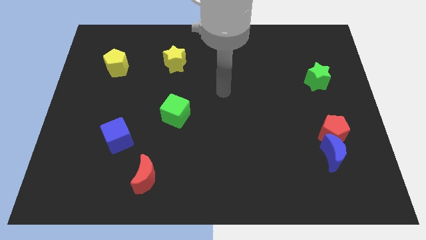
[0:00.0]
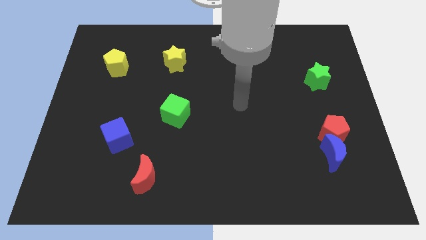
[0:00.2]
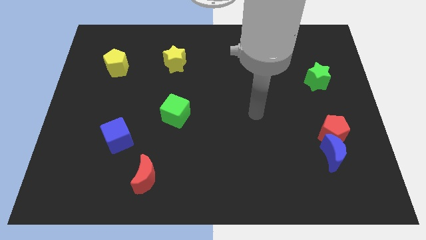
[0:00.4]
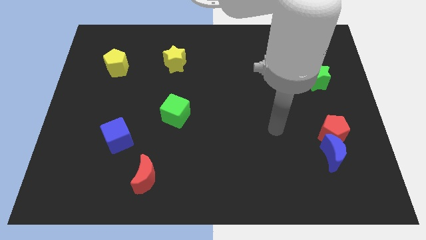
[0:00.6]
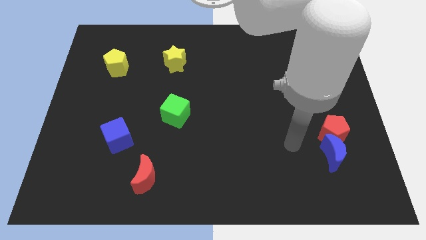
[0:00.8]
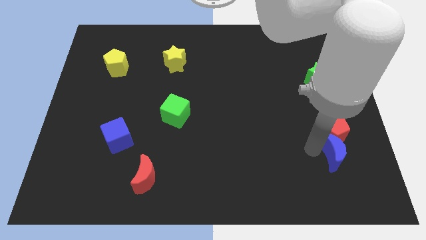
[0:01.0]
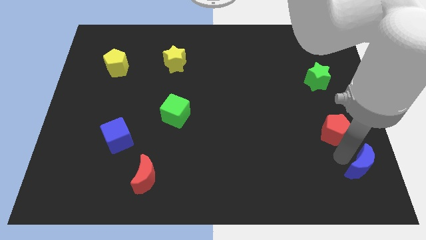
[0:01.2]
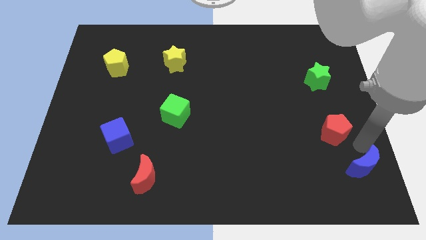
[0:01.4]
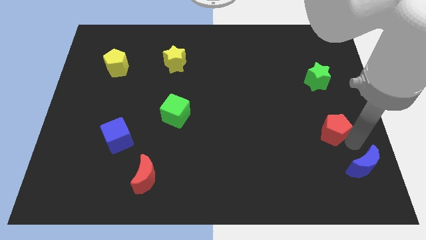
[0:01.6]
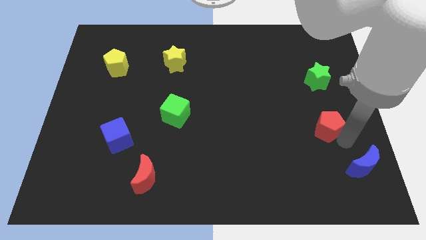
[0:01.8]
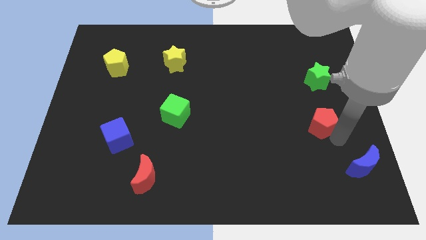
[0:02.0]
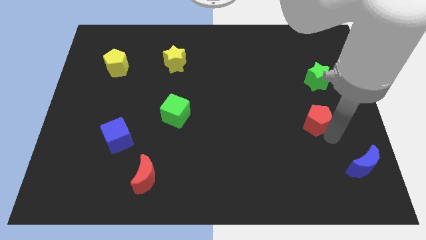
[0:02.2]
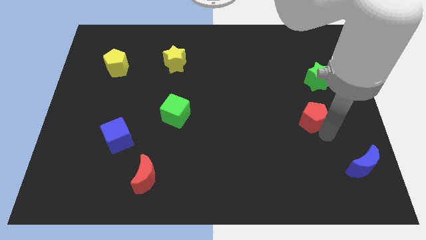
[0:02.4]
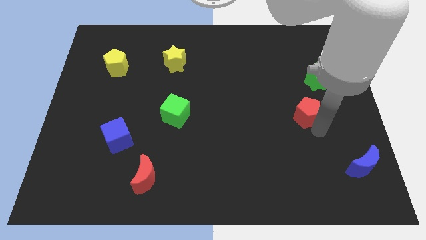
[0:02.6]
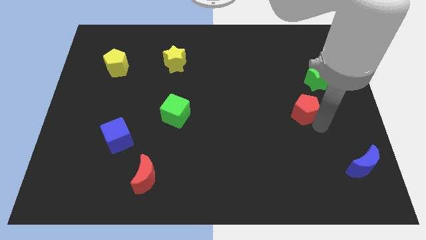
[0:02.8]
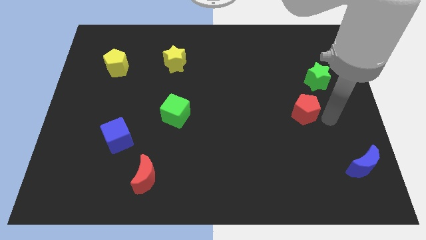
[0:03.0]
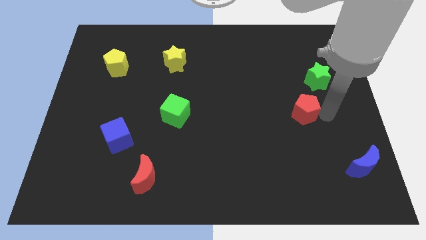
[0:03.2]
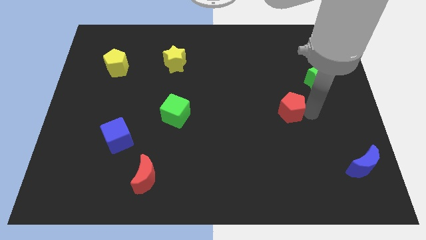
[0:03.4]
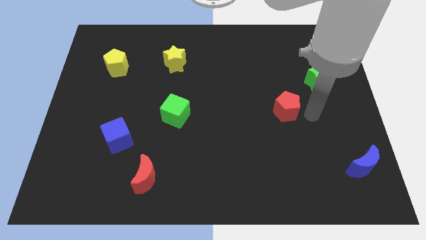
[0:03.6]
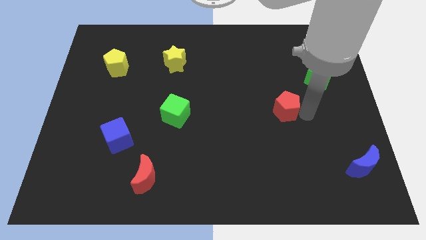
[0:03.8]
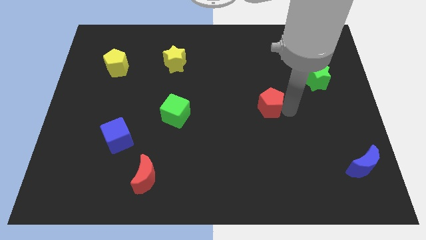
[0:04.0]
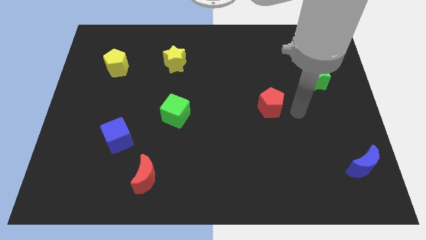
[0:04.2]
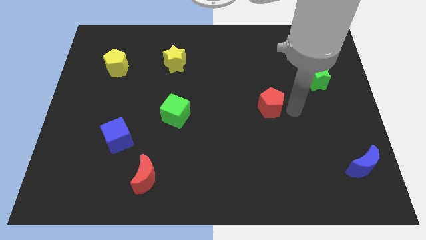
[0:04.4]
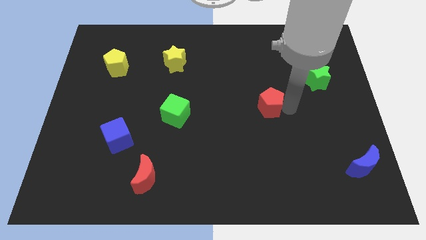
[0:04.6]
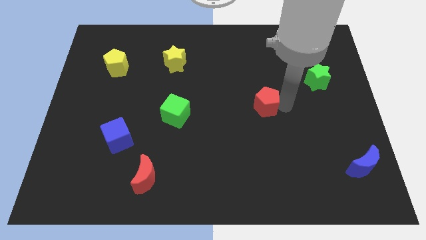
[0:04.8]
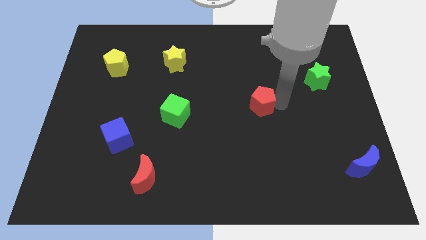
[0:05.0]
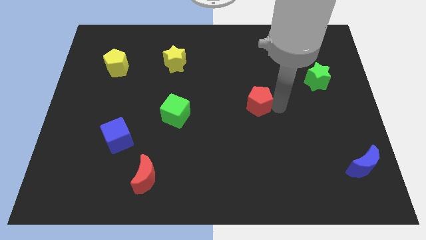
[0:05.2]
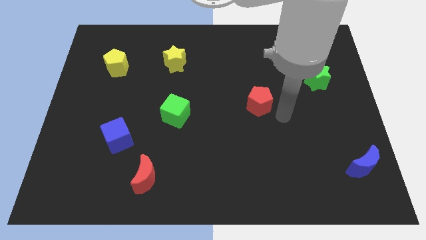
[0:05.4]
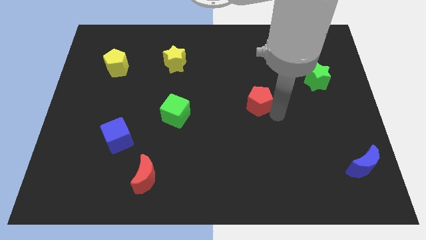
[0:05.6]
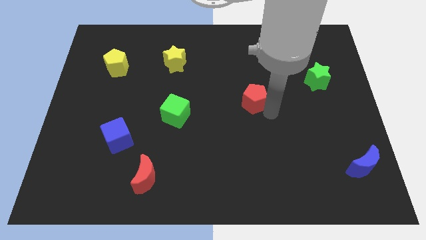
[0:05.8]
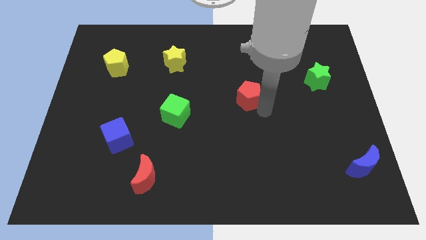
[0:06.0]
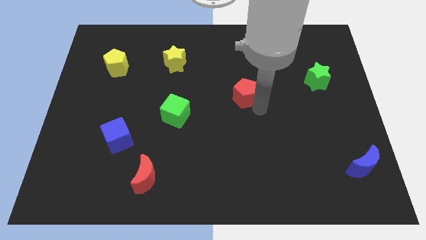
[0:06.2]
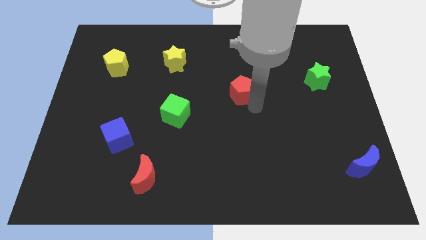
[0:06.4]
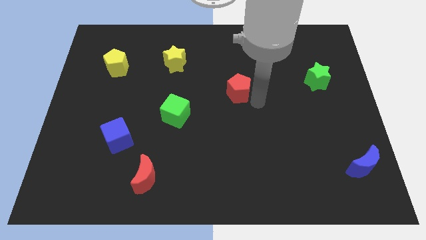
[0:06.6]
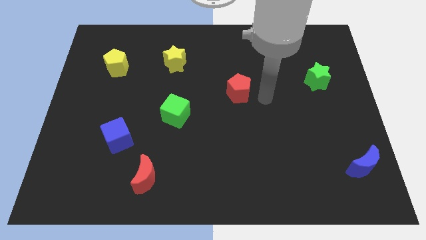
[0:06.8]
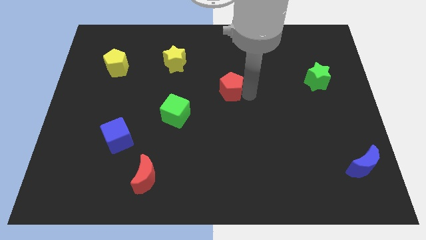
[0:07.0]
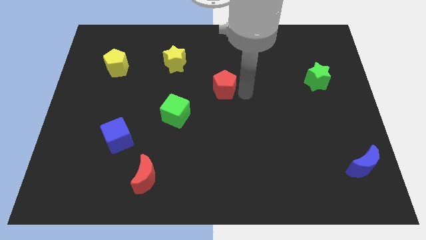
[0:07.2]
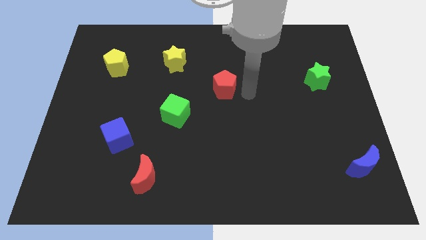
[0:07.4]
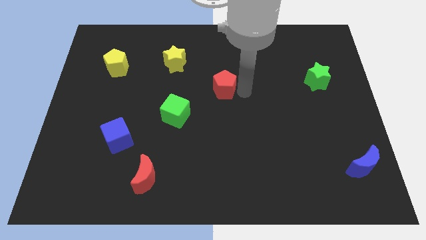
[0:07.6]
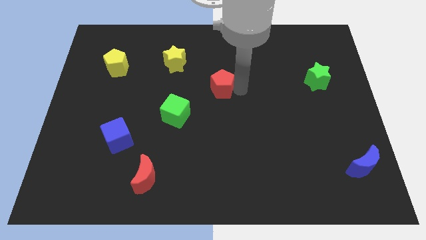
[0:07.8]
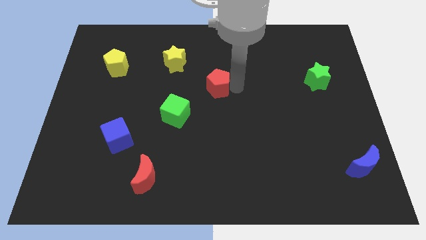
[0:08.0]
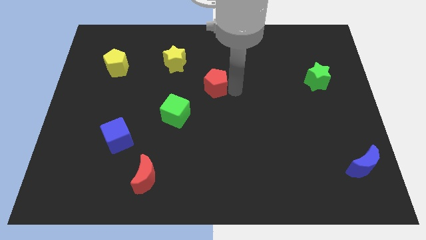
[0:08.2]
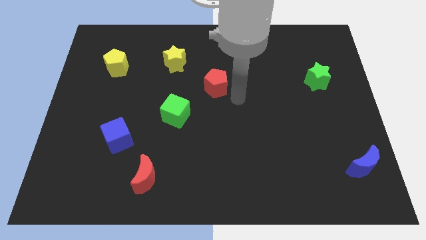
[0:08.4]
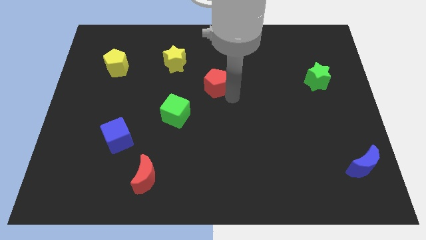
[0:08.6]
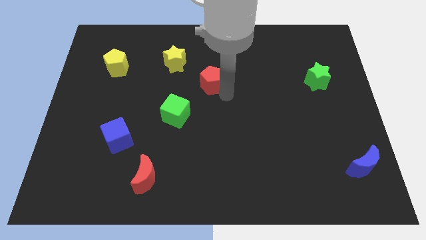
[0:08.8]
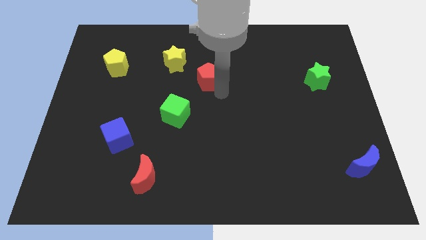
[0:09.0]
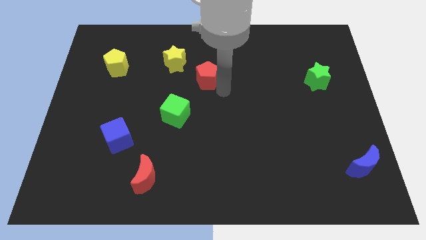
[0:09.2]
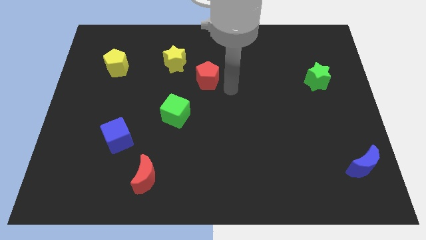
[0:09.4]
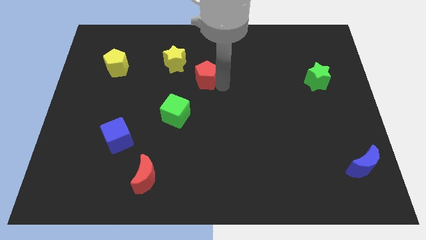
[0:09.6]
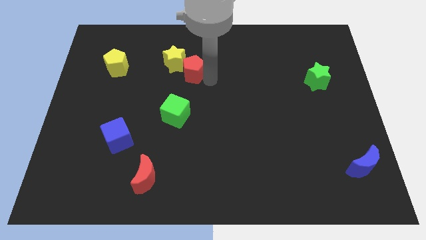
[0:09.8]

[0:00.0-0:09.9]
put the red pentagon towards the yellow star

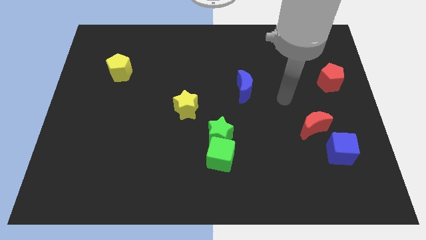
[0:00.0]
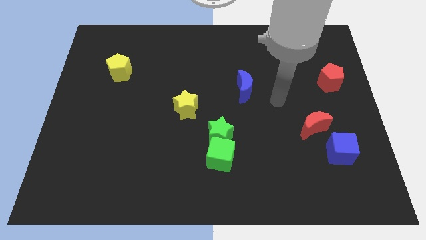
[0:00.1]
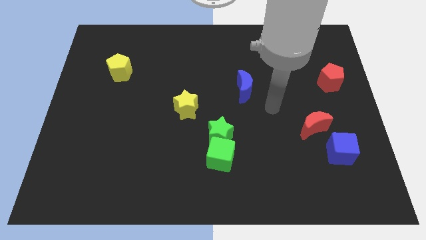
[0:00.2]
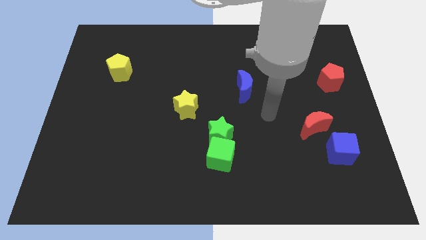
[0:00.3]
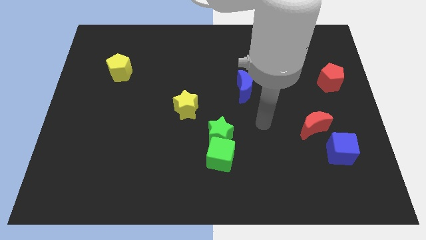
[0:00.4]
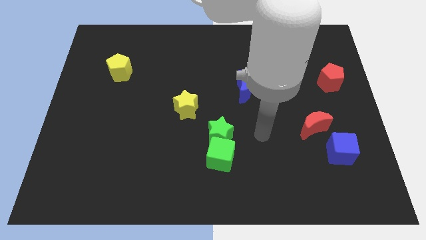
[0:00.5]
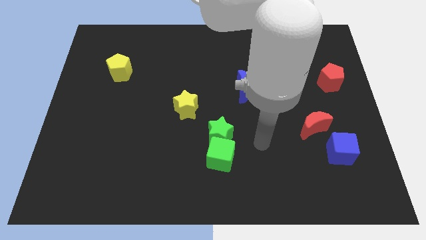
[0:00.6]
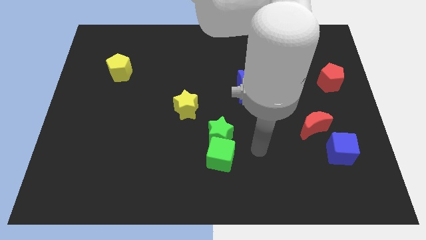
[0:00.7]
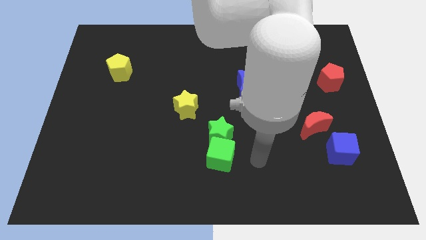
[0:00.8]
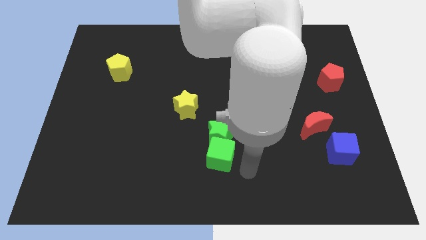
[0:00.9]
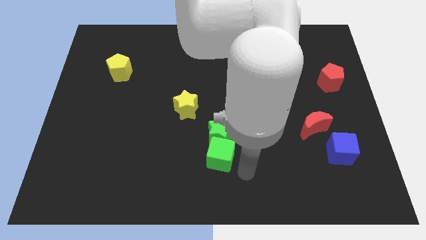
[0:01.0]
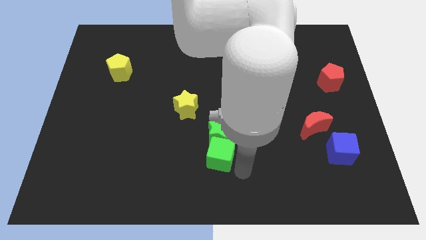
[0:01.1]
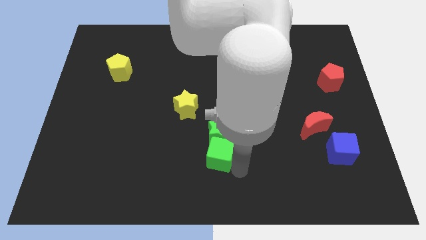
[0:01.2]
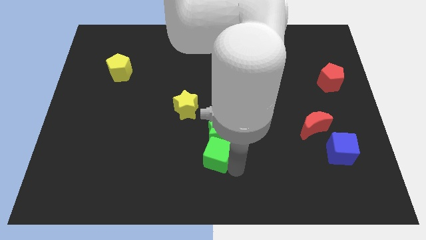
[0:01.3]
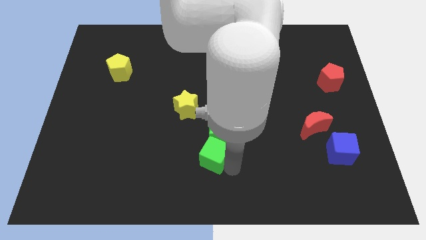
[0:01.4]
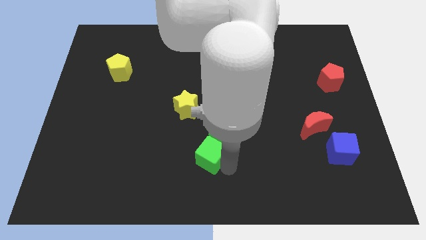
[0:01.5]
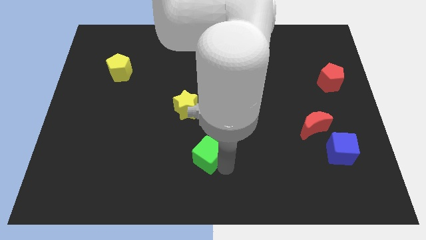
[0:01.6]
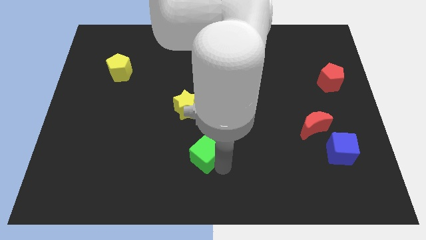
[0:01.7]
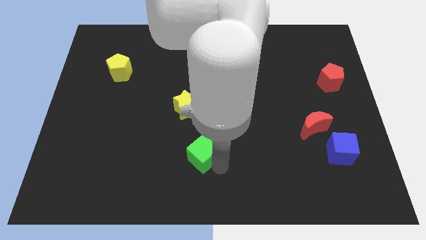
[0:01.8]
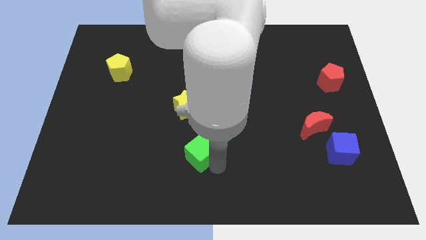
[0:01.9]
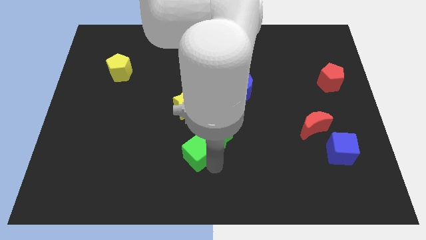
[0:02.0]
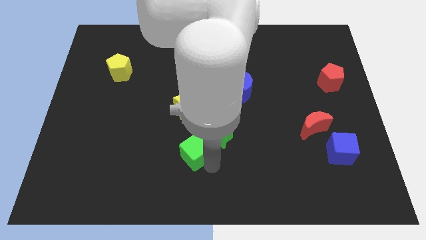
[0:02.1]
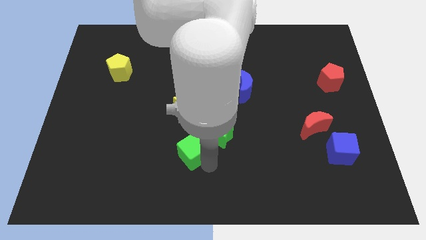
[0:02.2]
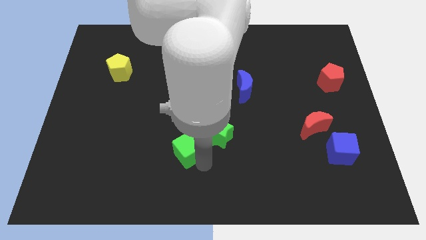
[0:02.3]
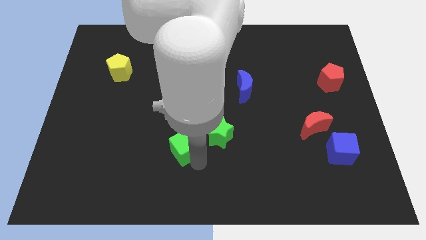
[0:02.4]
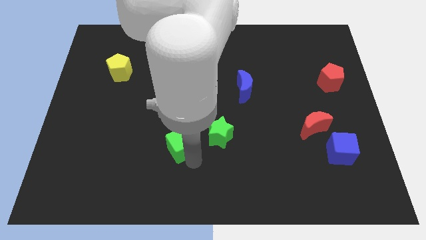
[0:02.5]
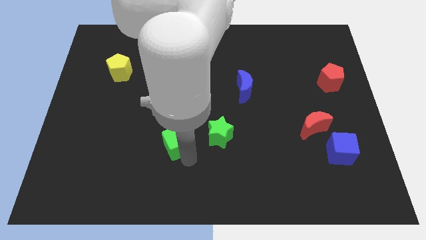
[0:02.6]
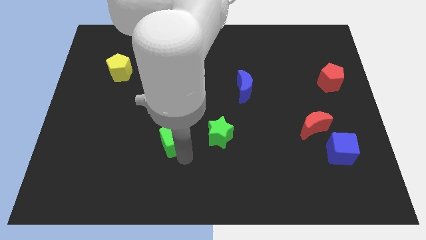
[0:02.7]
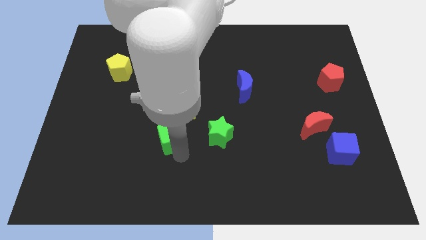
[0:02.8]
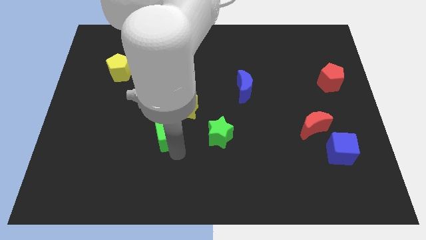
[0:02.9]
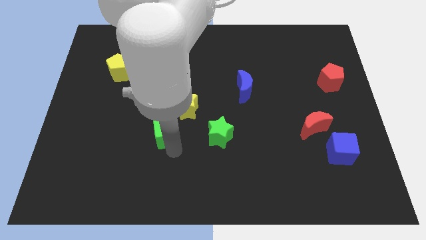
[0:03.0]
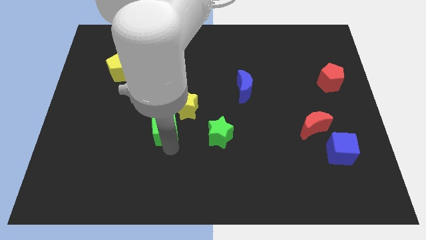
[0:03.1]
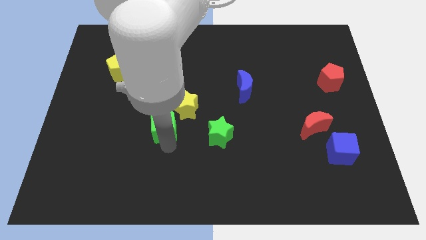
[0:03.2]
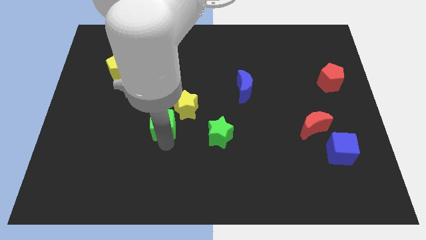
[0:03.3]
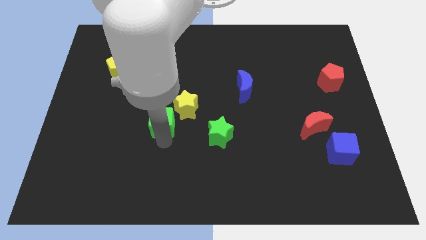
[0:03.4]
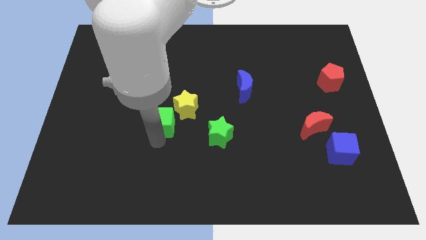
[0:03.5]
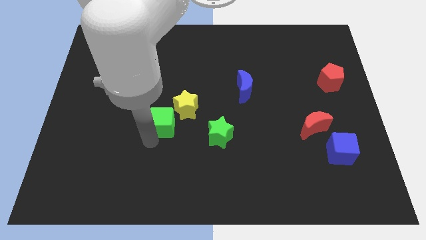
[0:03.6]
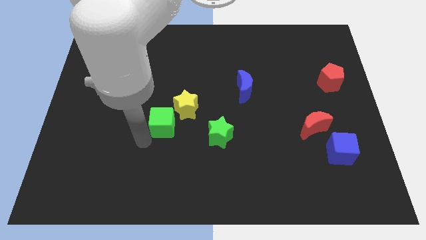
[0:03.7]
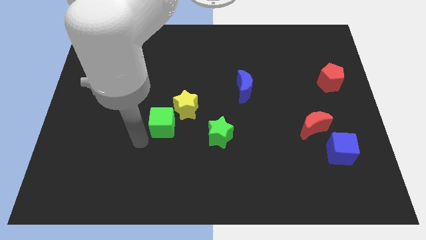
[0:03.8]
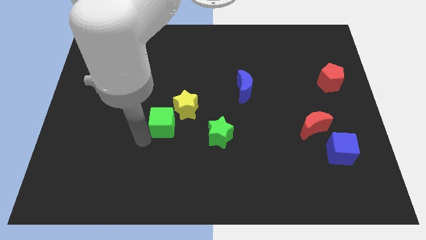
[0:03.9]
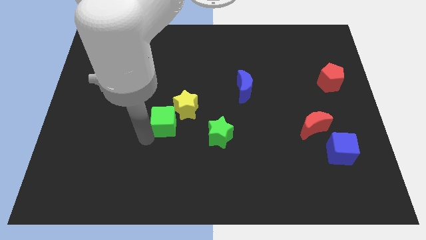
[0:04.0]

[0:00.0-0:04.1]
move the green cube close to the yellow star
